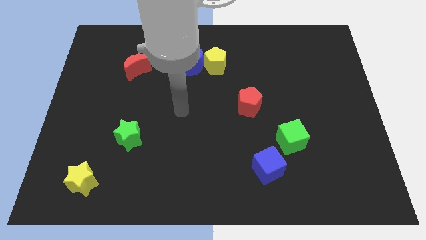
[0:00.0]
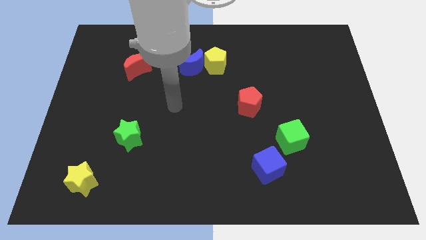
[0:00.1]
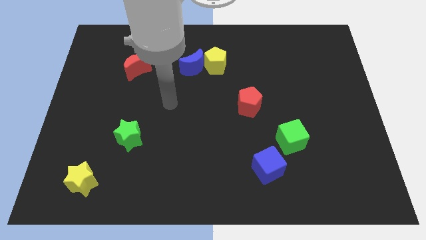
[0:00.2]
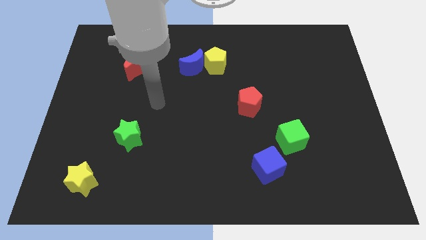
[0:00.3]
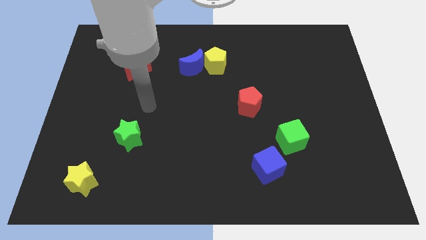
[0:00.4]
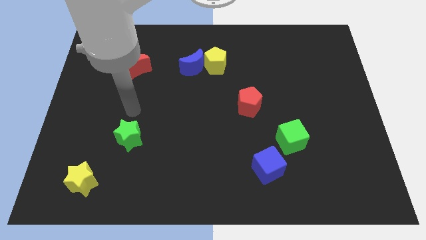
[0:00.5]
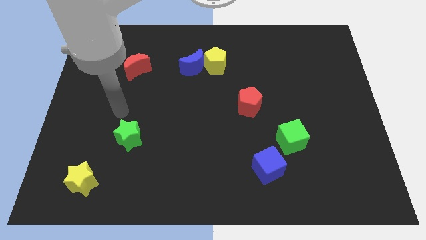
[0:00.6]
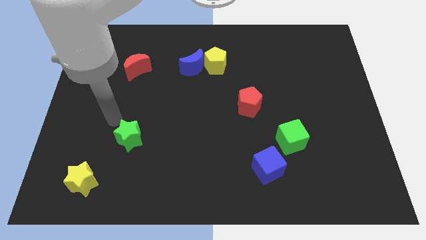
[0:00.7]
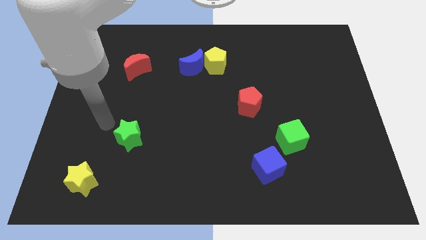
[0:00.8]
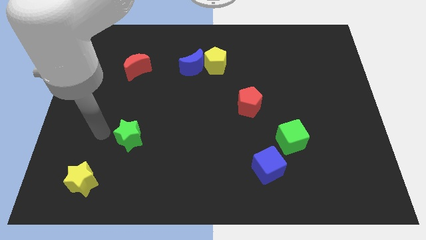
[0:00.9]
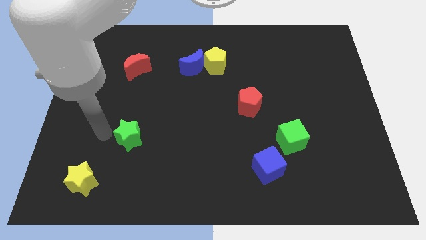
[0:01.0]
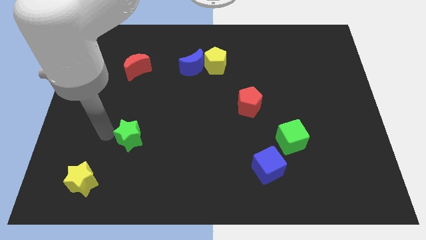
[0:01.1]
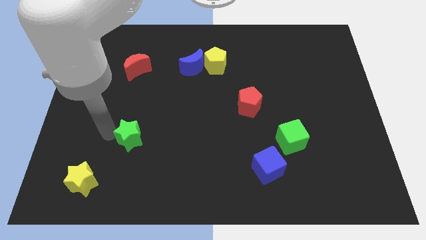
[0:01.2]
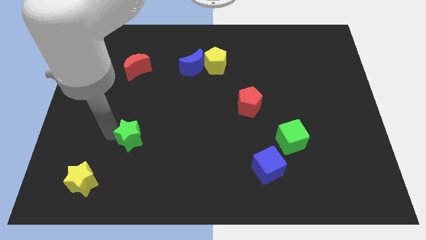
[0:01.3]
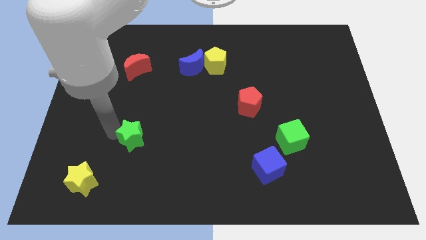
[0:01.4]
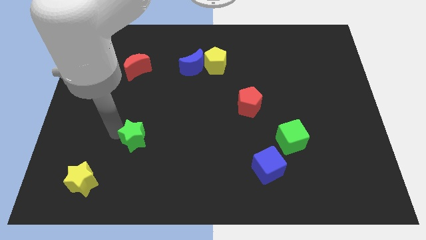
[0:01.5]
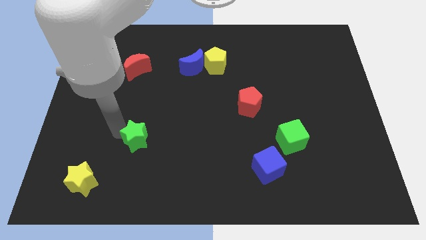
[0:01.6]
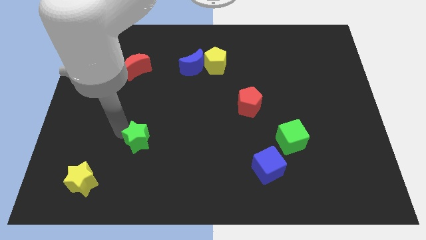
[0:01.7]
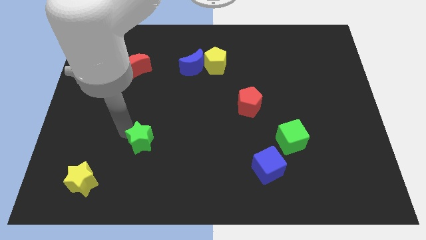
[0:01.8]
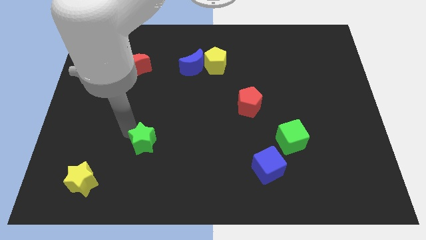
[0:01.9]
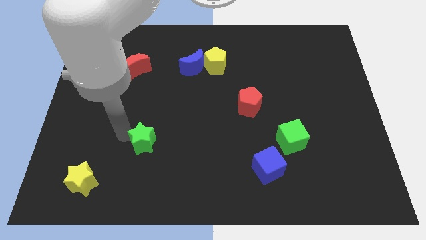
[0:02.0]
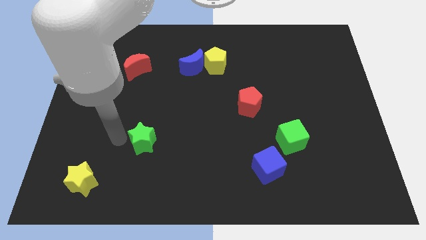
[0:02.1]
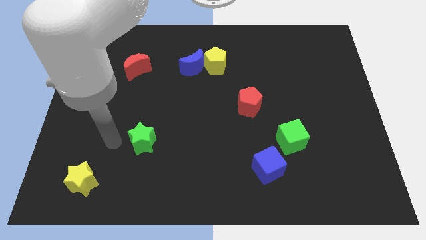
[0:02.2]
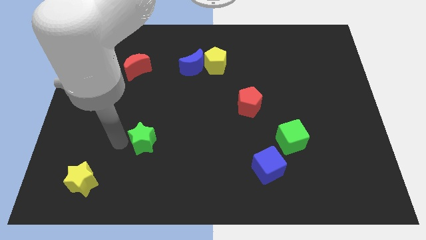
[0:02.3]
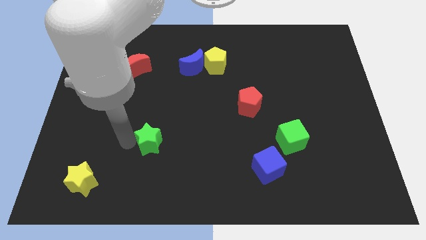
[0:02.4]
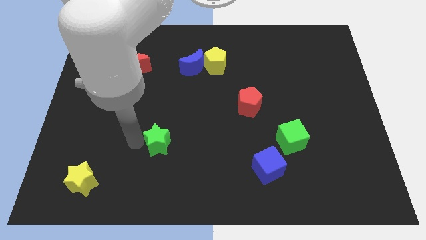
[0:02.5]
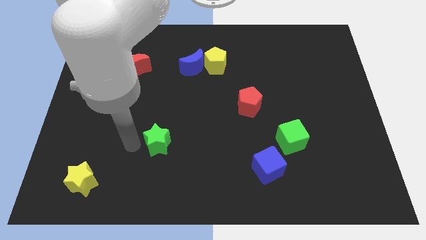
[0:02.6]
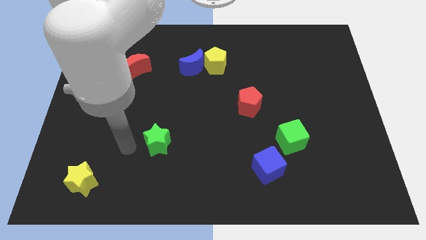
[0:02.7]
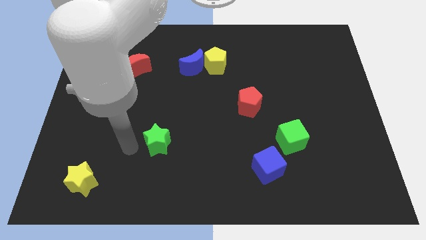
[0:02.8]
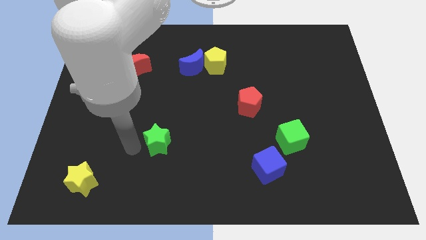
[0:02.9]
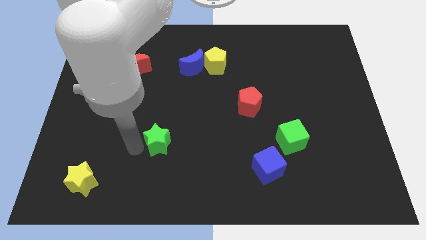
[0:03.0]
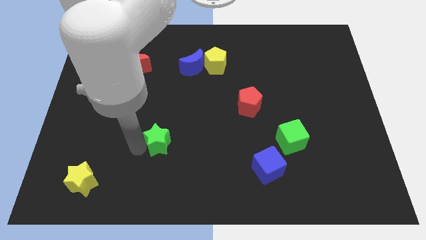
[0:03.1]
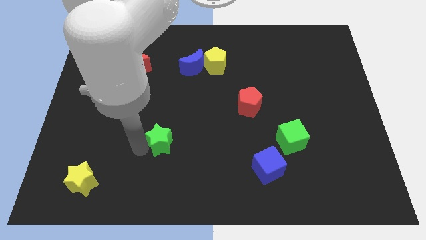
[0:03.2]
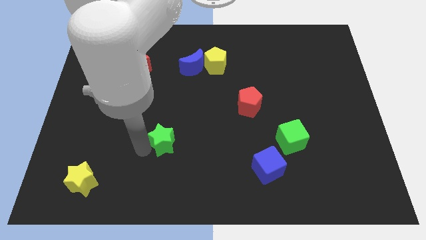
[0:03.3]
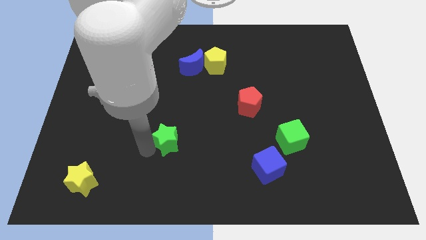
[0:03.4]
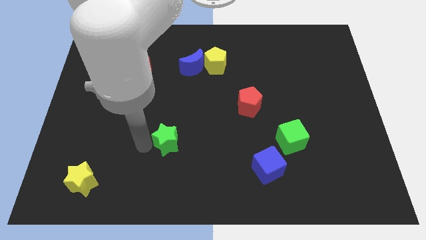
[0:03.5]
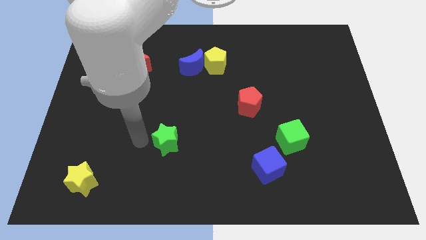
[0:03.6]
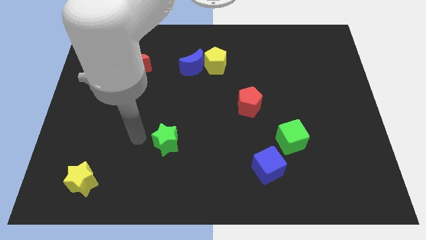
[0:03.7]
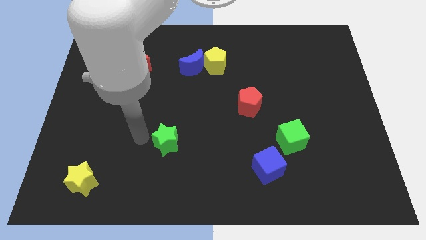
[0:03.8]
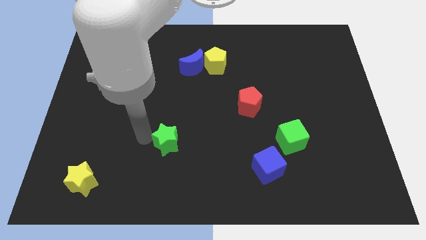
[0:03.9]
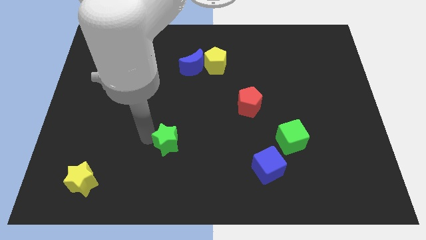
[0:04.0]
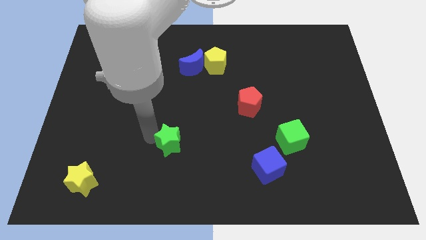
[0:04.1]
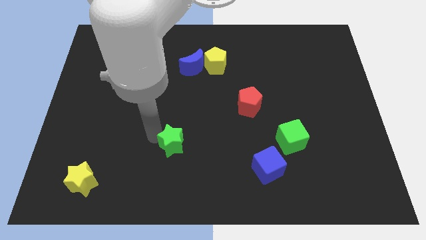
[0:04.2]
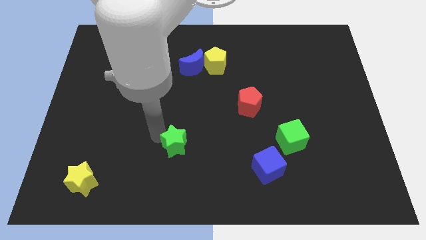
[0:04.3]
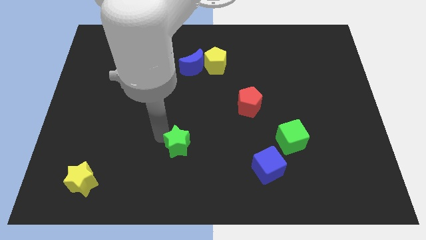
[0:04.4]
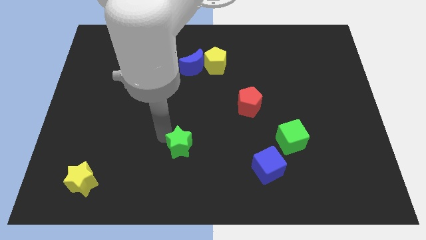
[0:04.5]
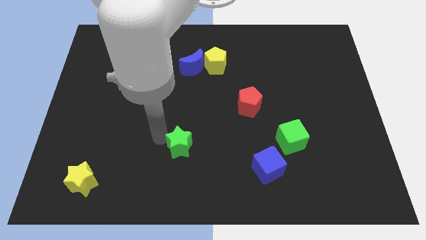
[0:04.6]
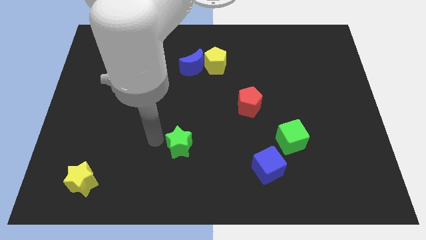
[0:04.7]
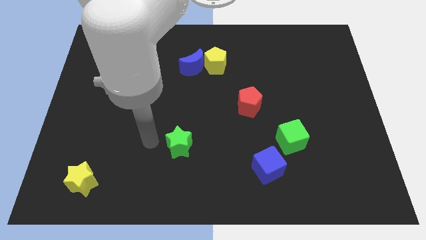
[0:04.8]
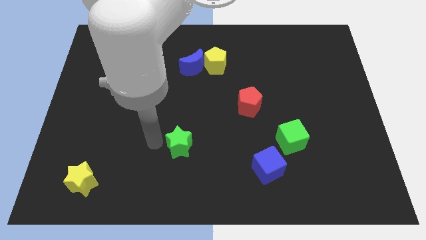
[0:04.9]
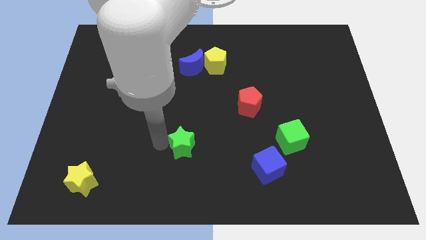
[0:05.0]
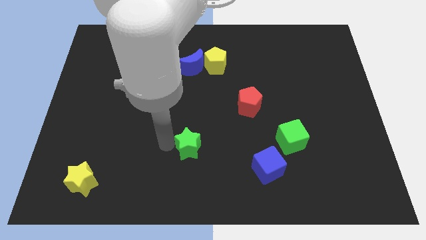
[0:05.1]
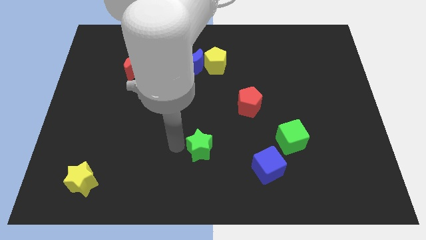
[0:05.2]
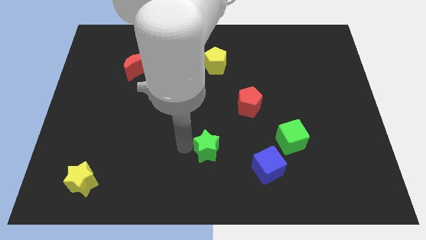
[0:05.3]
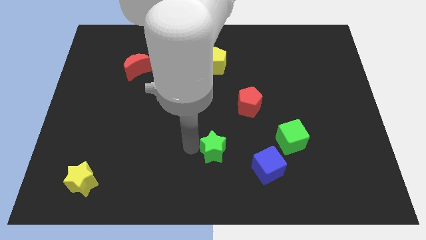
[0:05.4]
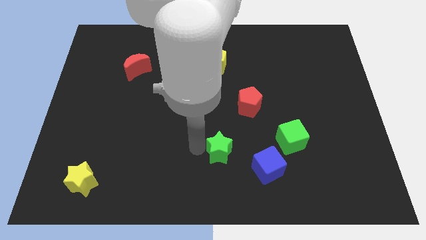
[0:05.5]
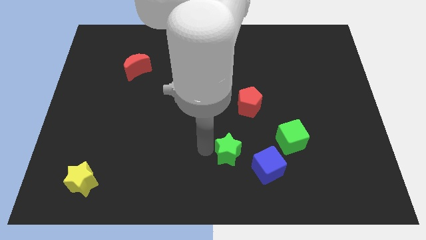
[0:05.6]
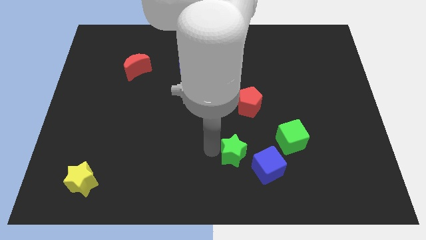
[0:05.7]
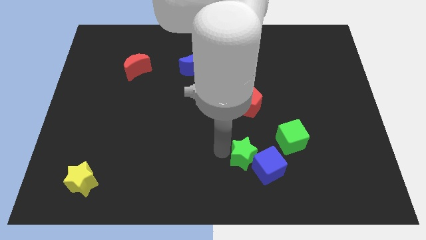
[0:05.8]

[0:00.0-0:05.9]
push the green star towards the blue cube

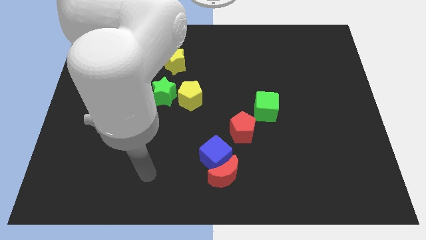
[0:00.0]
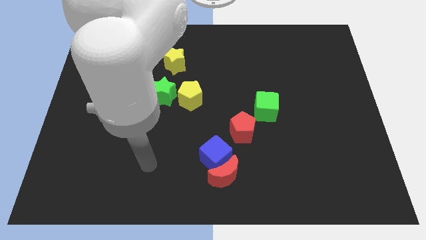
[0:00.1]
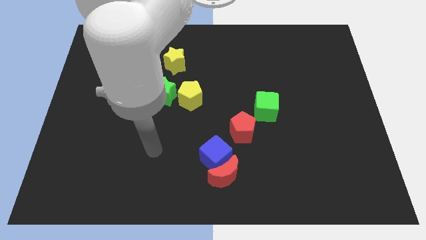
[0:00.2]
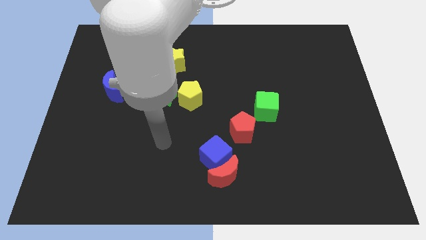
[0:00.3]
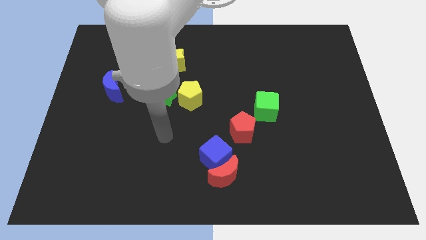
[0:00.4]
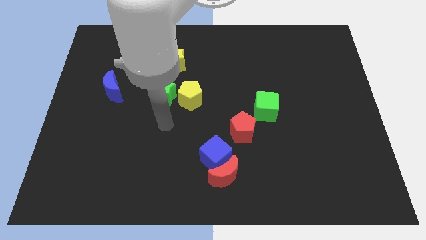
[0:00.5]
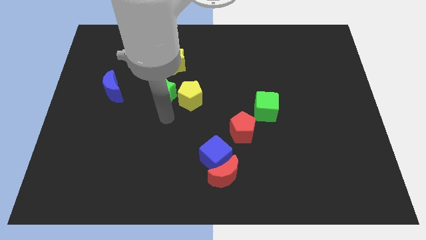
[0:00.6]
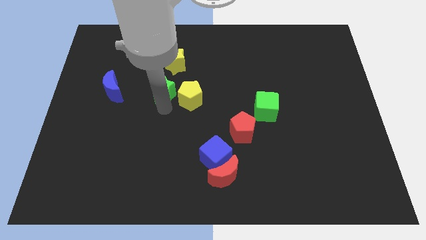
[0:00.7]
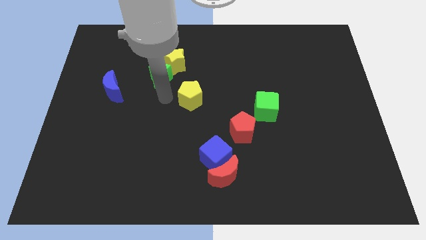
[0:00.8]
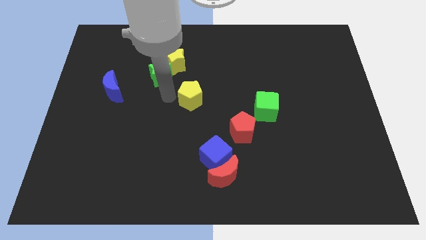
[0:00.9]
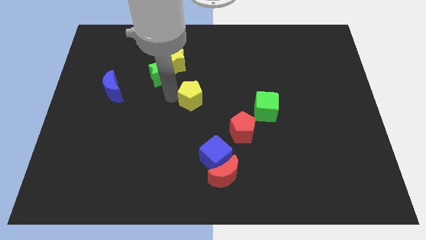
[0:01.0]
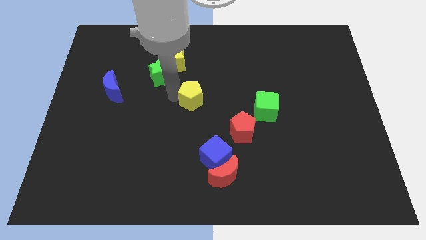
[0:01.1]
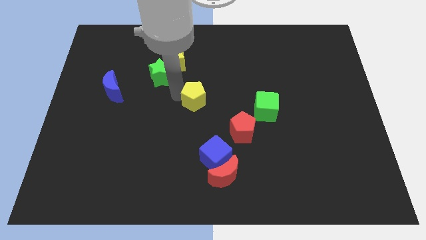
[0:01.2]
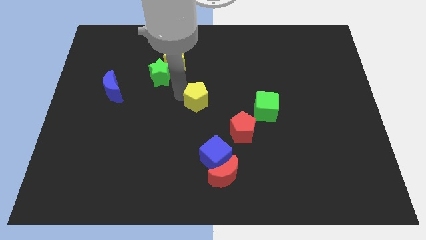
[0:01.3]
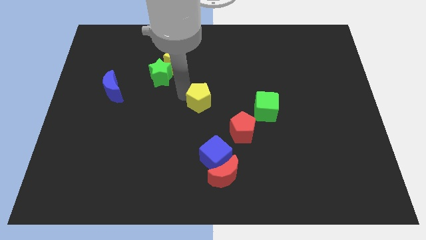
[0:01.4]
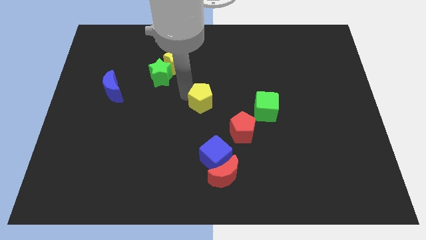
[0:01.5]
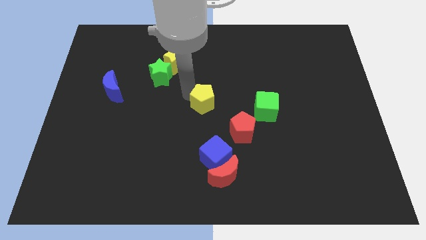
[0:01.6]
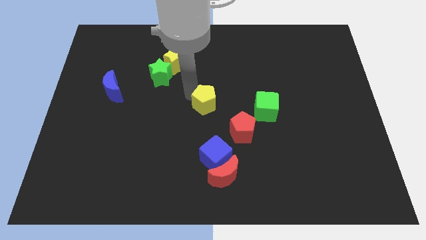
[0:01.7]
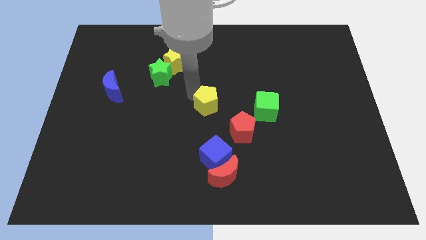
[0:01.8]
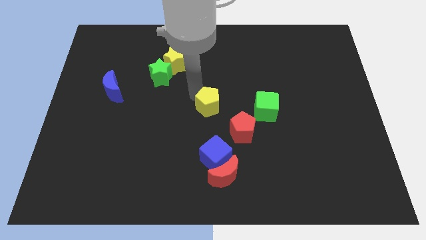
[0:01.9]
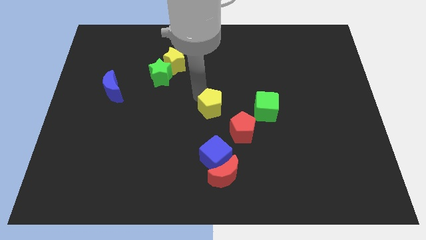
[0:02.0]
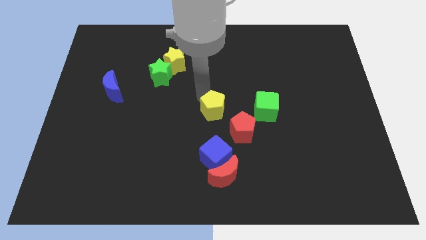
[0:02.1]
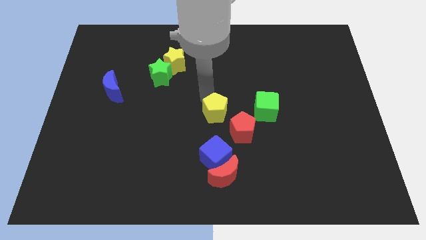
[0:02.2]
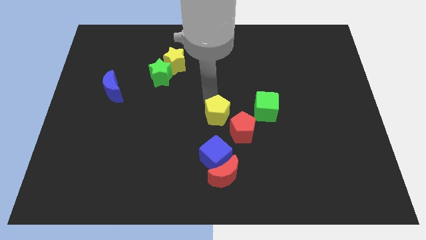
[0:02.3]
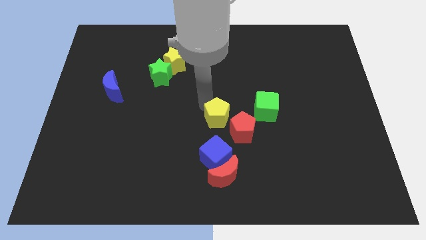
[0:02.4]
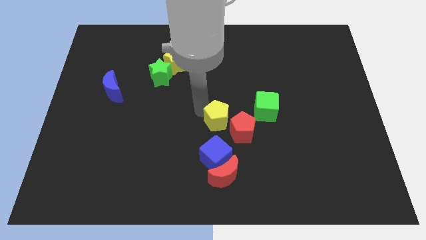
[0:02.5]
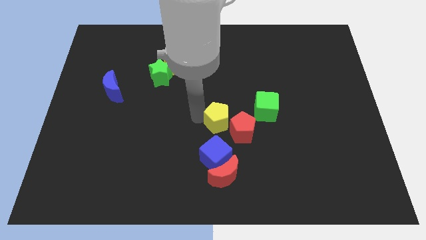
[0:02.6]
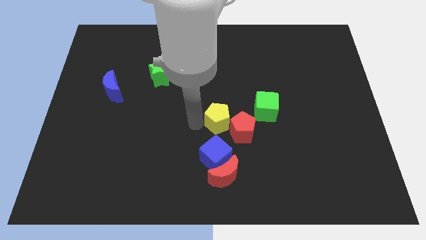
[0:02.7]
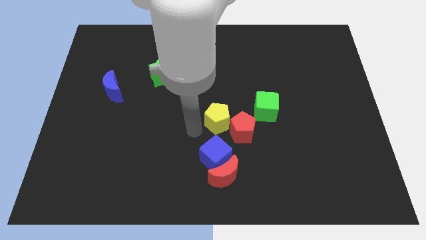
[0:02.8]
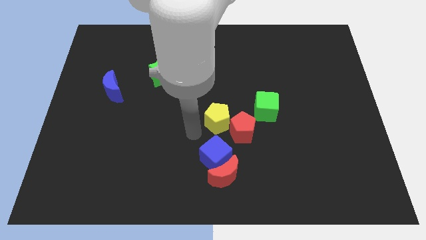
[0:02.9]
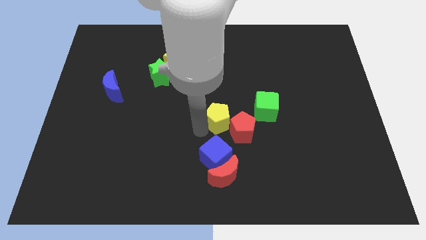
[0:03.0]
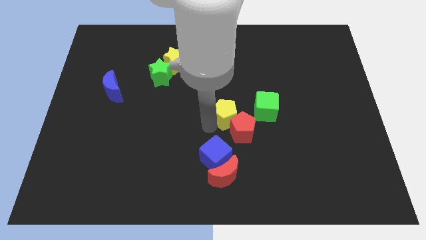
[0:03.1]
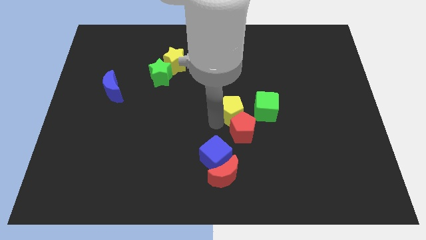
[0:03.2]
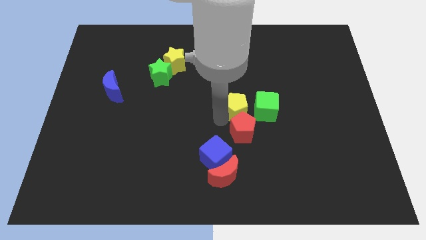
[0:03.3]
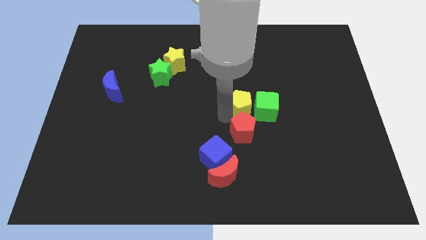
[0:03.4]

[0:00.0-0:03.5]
move the yellow pentagon next to the green cube
